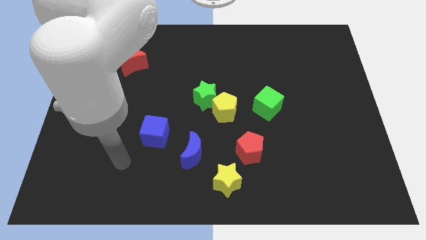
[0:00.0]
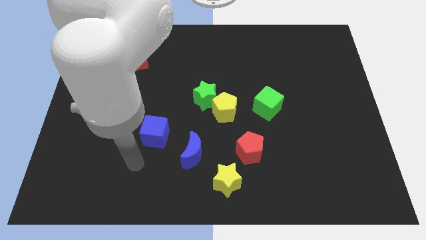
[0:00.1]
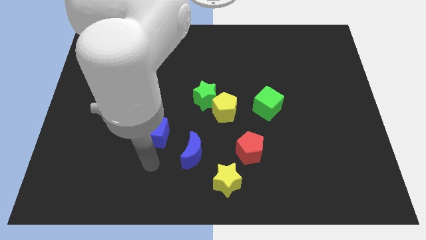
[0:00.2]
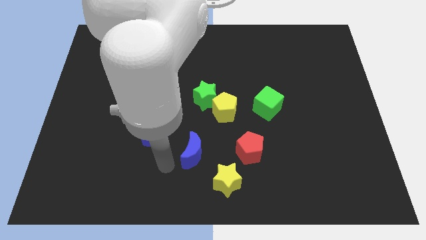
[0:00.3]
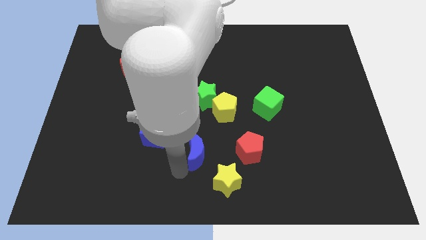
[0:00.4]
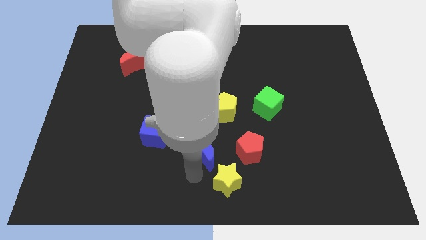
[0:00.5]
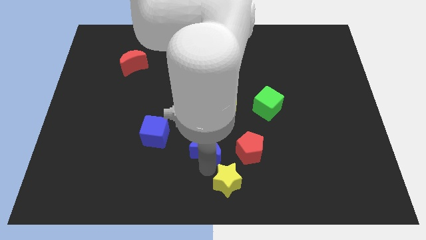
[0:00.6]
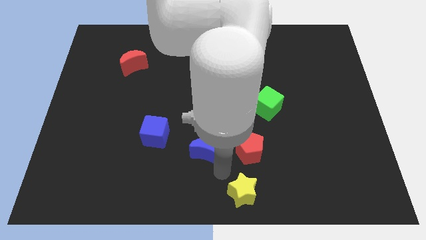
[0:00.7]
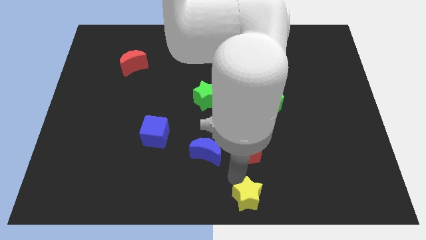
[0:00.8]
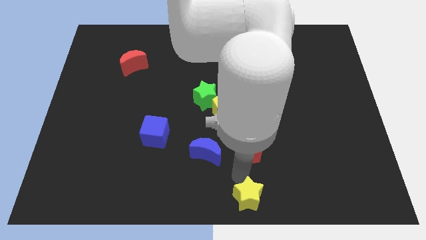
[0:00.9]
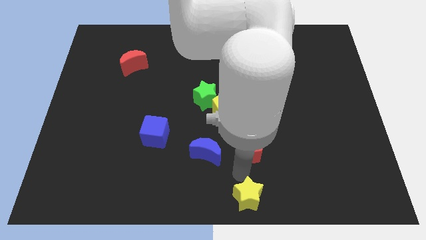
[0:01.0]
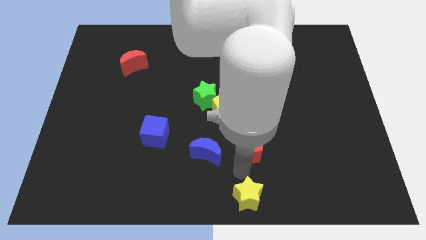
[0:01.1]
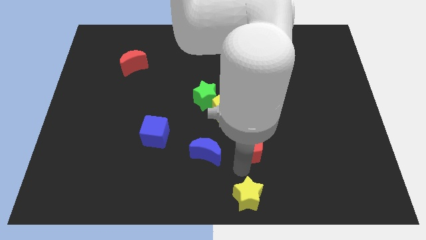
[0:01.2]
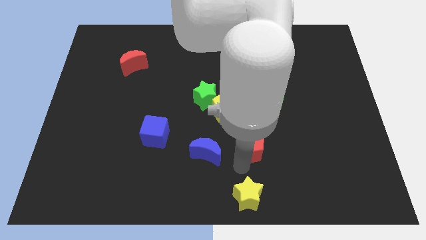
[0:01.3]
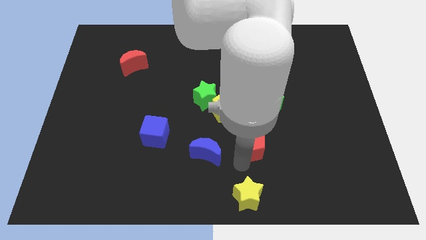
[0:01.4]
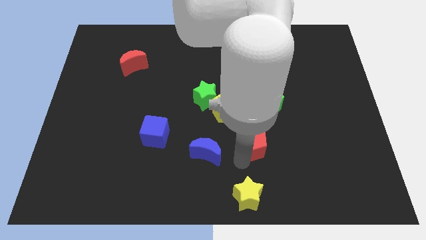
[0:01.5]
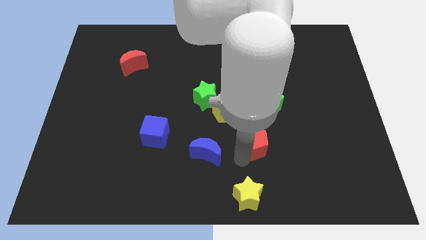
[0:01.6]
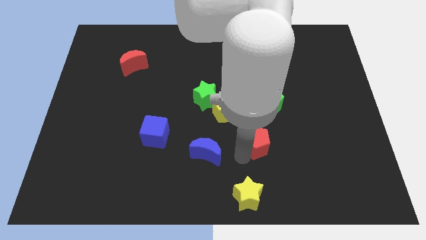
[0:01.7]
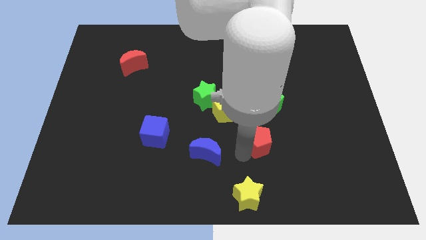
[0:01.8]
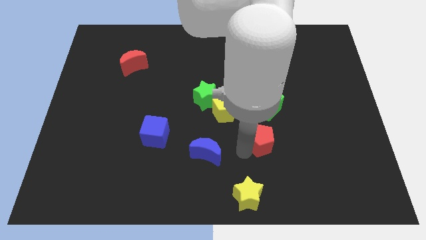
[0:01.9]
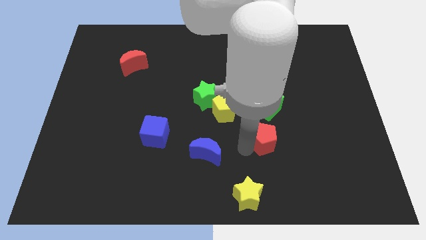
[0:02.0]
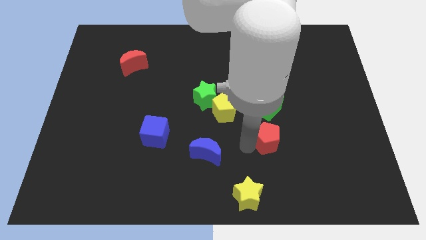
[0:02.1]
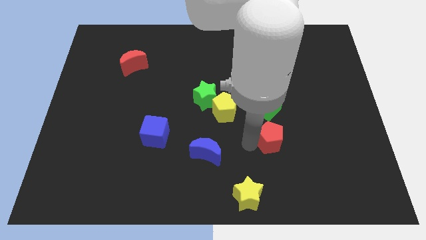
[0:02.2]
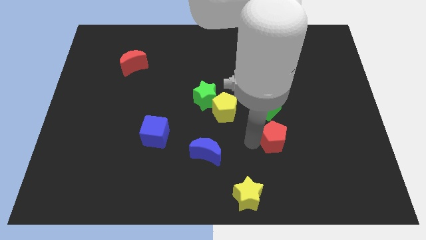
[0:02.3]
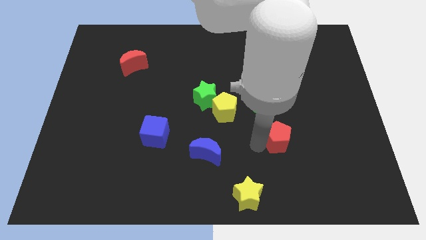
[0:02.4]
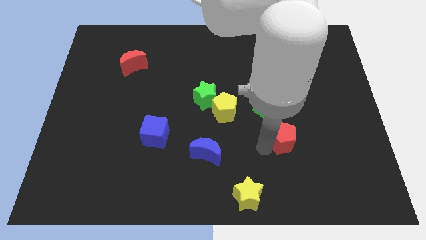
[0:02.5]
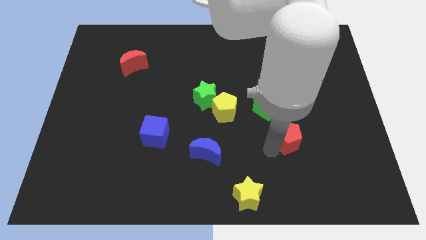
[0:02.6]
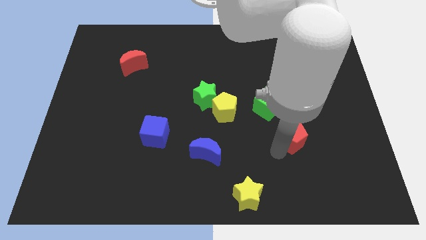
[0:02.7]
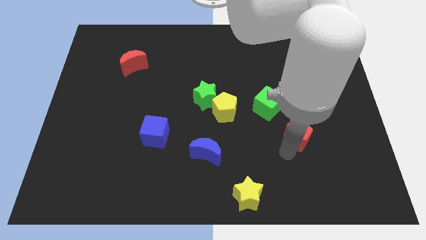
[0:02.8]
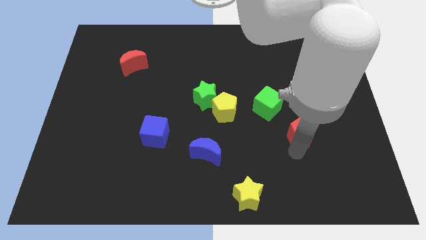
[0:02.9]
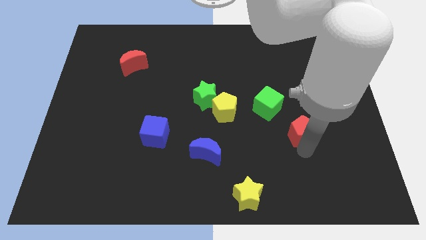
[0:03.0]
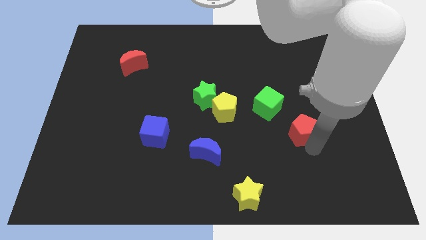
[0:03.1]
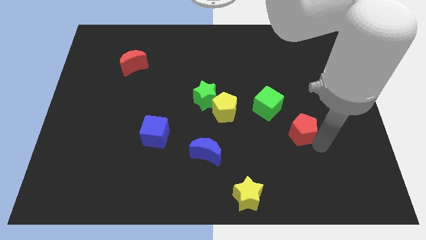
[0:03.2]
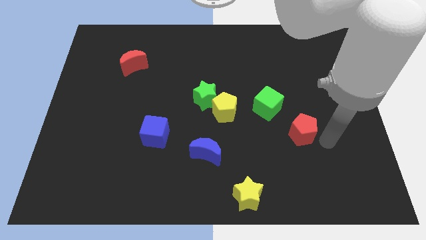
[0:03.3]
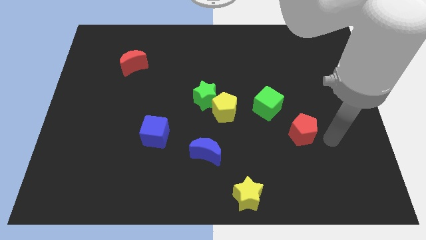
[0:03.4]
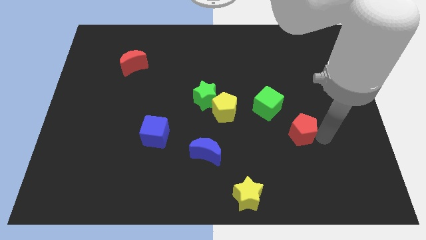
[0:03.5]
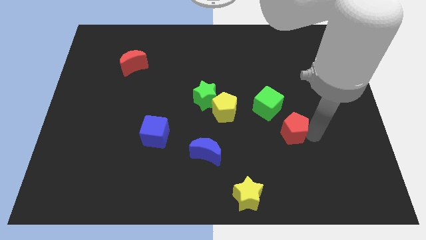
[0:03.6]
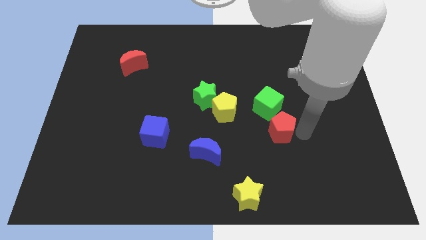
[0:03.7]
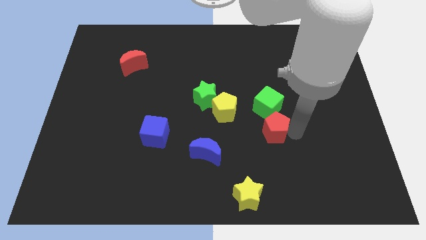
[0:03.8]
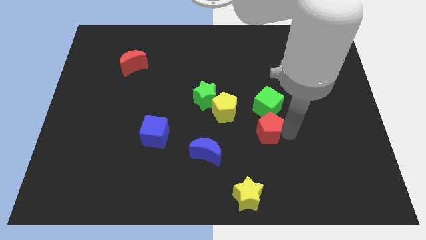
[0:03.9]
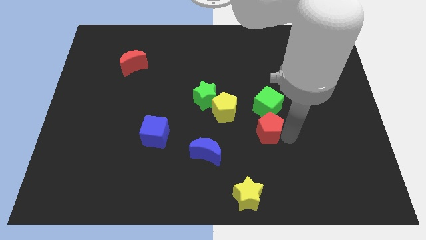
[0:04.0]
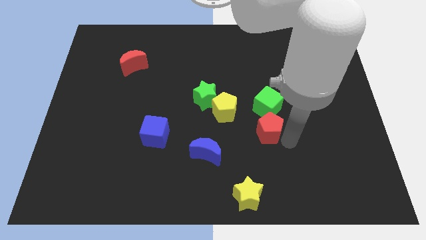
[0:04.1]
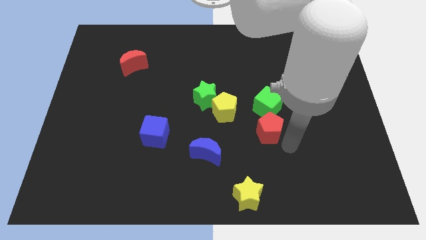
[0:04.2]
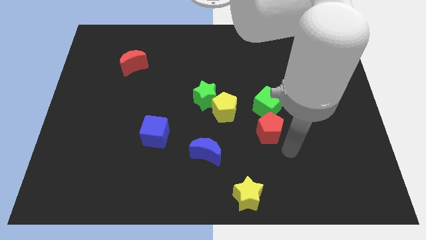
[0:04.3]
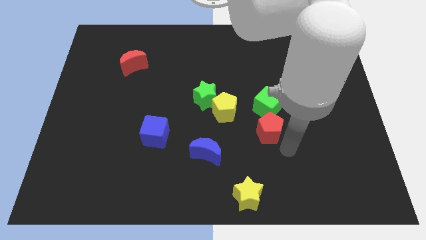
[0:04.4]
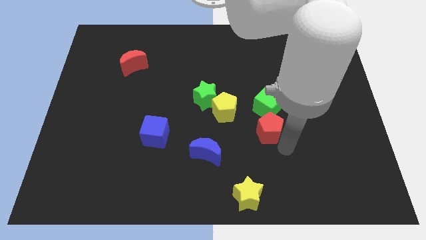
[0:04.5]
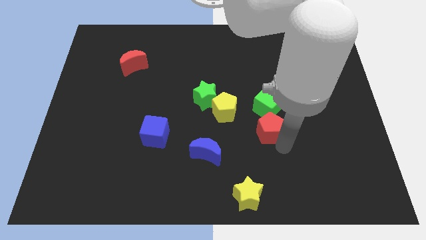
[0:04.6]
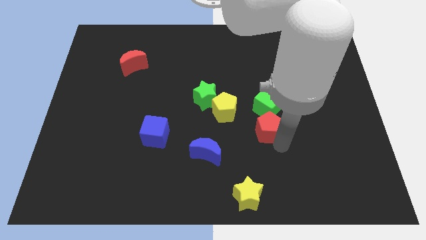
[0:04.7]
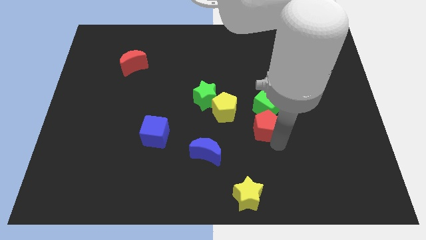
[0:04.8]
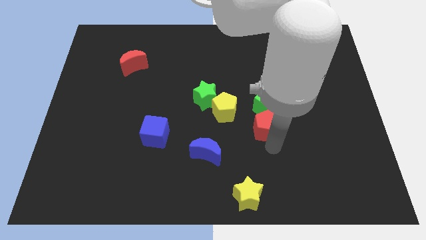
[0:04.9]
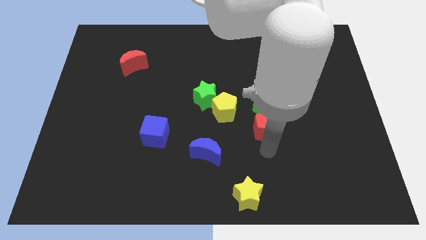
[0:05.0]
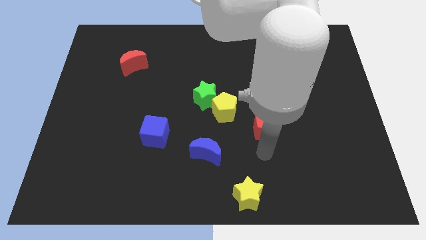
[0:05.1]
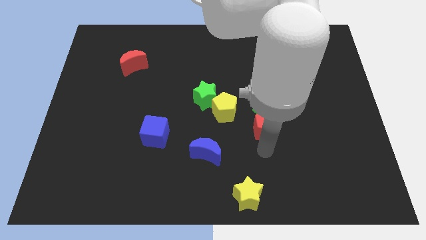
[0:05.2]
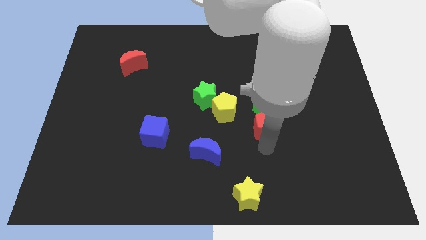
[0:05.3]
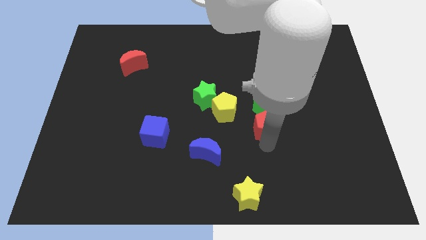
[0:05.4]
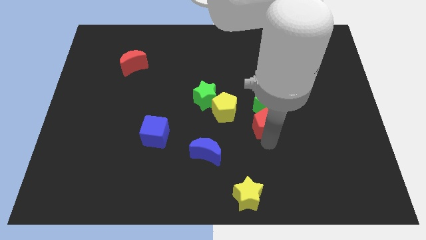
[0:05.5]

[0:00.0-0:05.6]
push the red pentagon towards the green cube

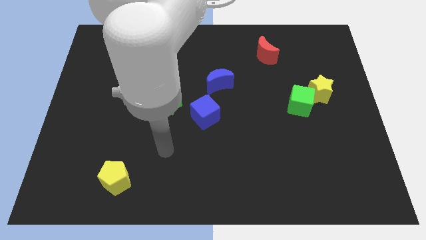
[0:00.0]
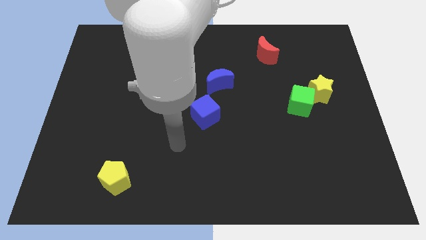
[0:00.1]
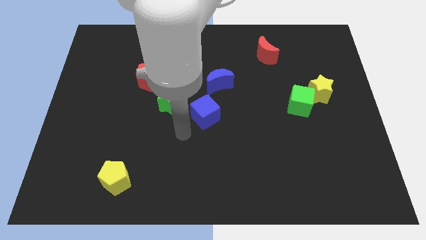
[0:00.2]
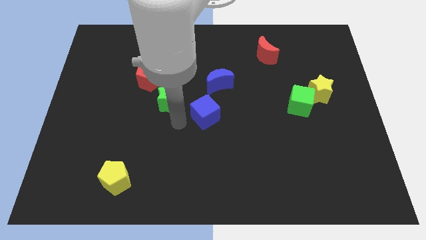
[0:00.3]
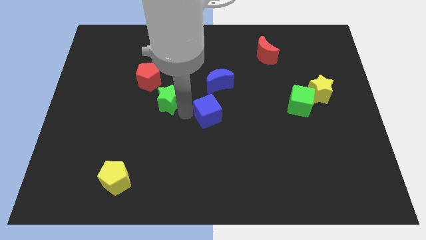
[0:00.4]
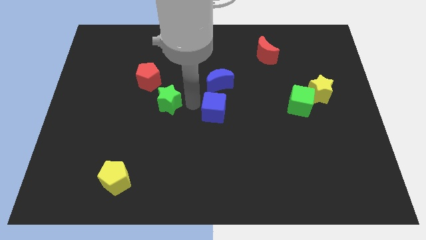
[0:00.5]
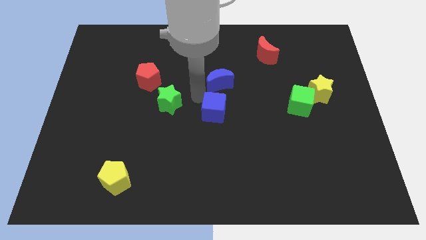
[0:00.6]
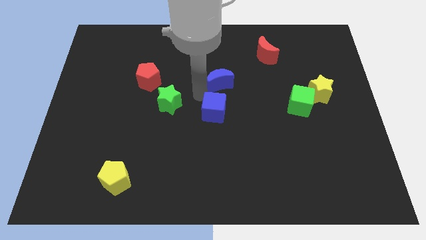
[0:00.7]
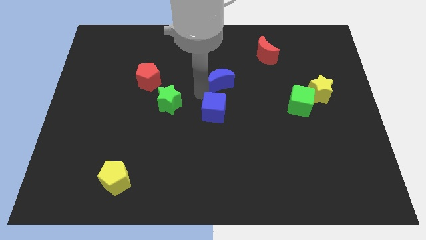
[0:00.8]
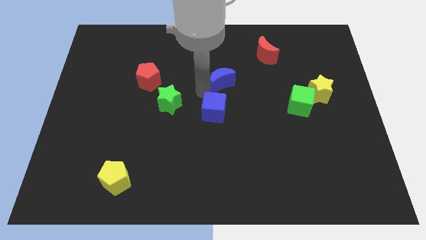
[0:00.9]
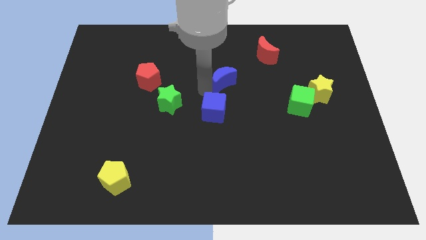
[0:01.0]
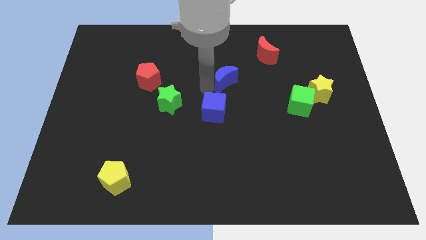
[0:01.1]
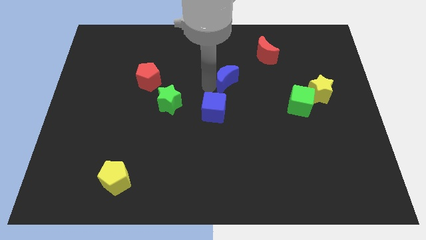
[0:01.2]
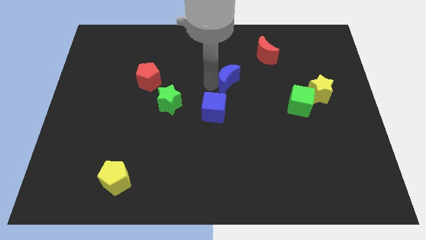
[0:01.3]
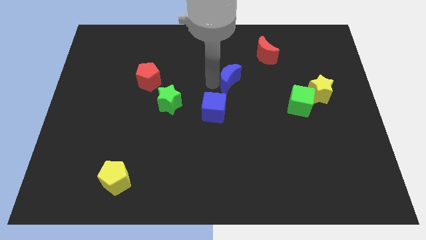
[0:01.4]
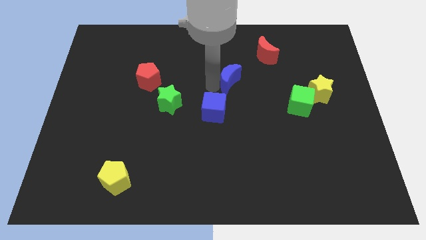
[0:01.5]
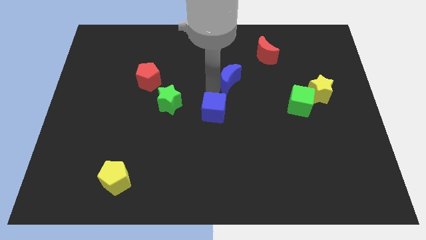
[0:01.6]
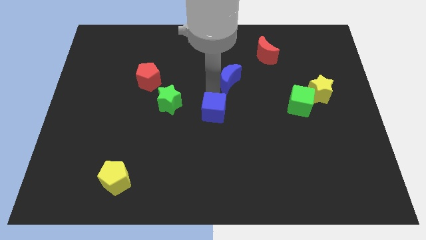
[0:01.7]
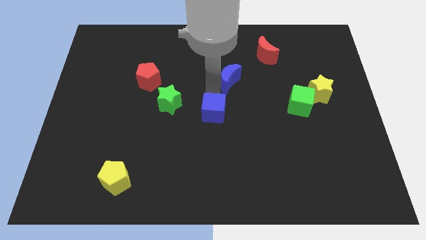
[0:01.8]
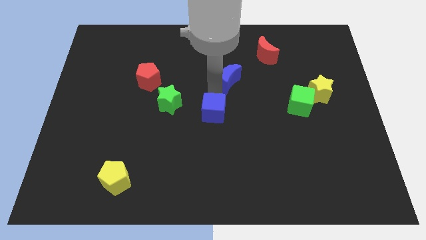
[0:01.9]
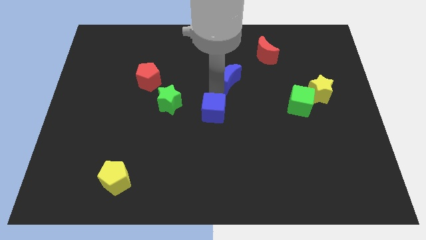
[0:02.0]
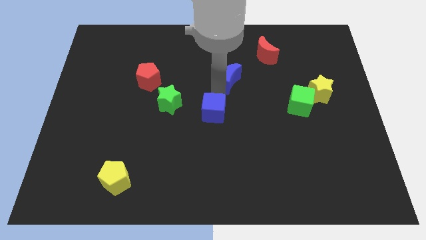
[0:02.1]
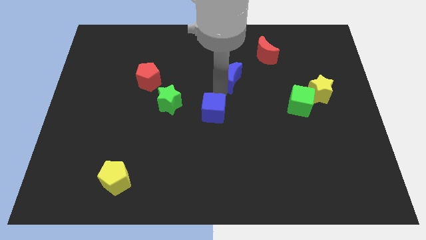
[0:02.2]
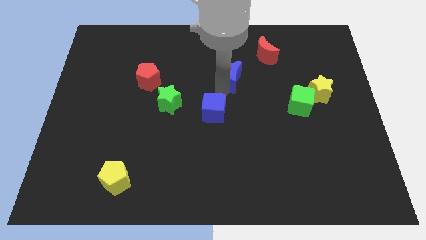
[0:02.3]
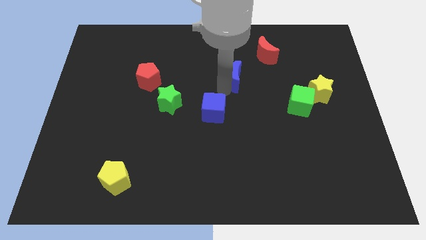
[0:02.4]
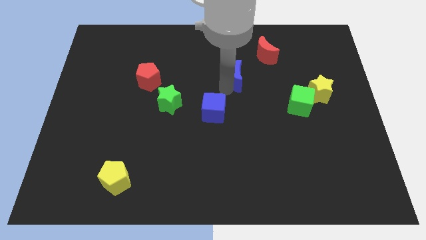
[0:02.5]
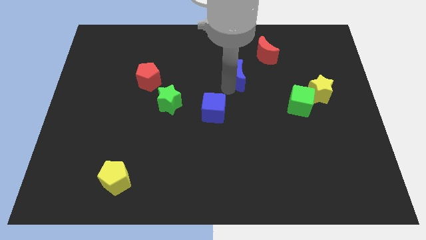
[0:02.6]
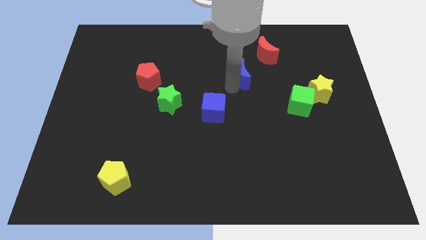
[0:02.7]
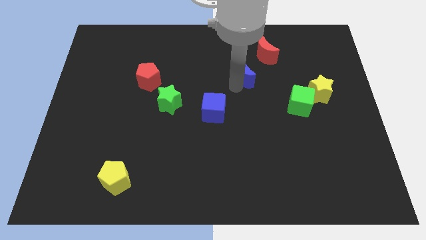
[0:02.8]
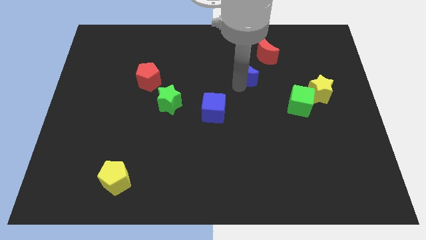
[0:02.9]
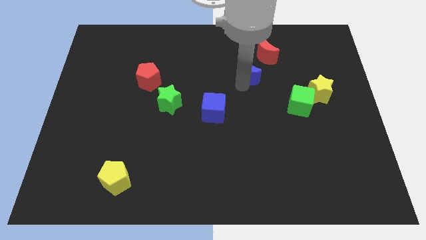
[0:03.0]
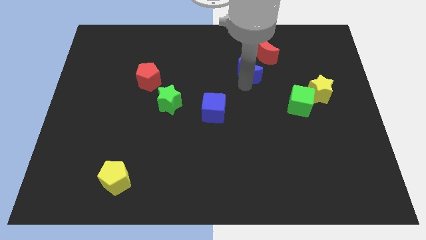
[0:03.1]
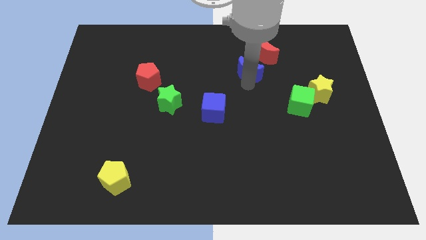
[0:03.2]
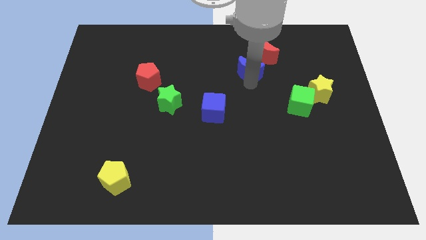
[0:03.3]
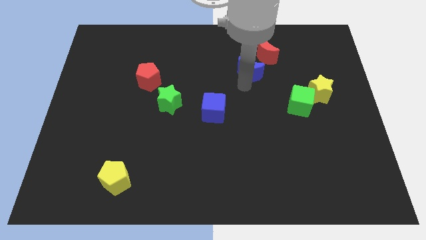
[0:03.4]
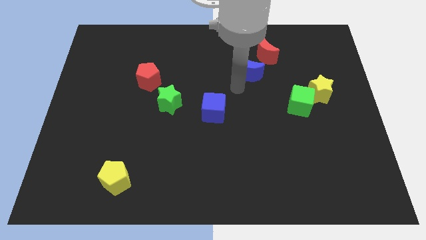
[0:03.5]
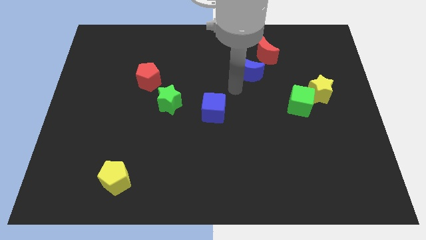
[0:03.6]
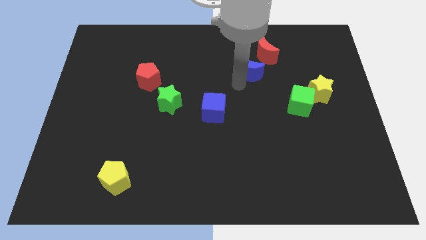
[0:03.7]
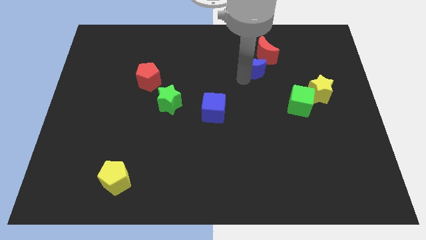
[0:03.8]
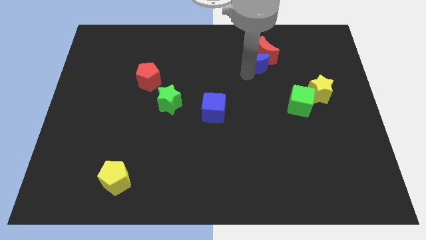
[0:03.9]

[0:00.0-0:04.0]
put the blue moon next to the red moon
